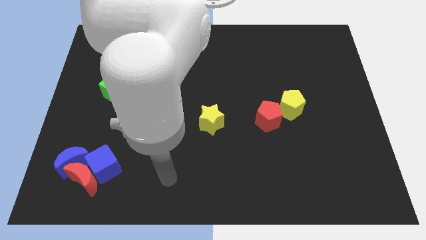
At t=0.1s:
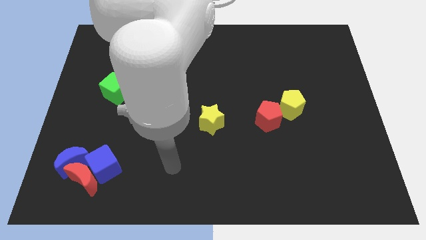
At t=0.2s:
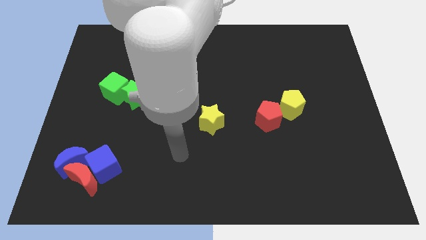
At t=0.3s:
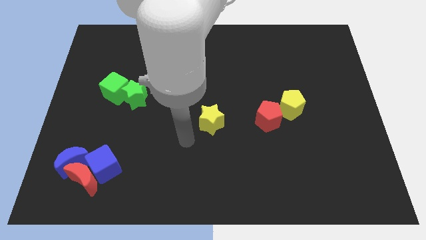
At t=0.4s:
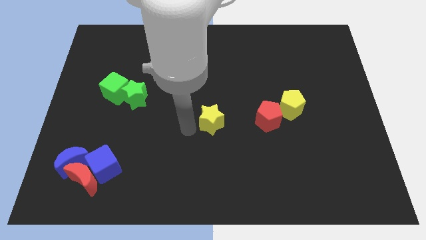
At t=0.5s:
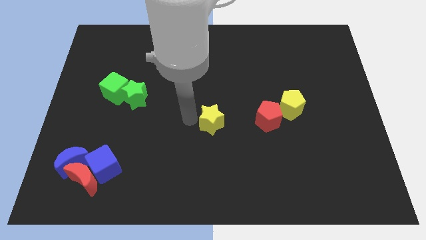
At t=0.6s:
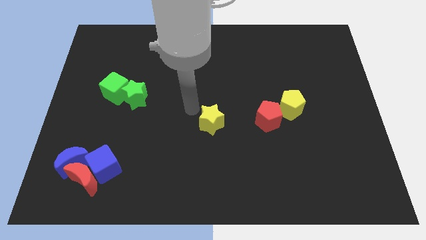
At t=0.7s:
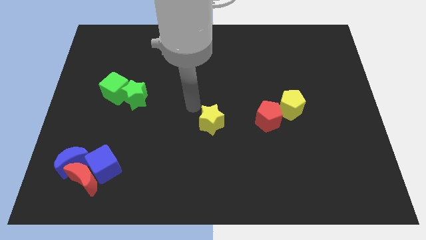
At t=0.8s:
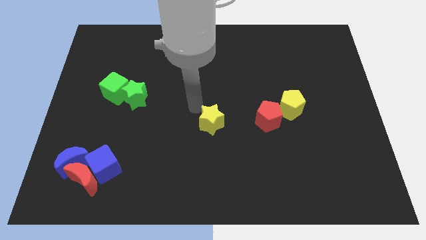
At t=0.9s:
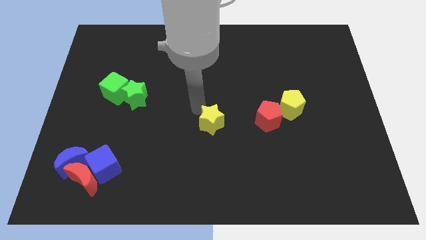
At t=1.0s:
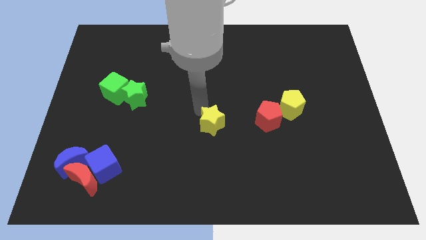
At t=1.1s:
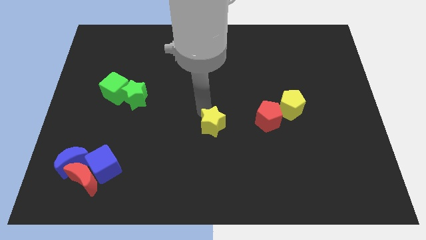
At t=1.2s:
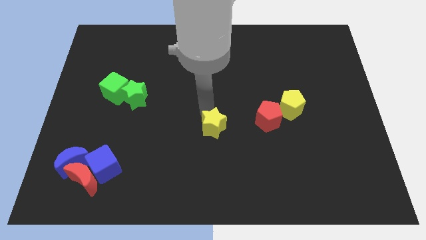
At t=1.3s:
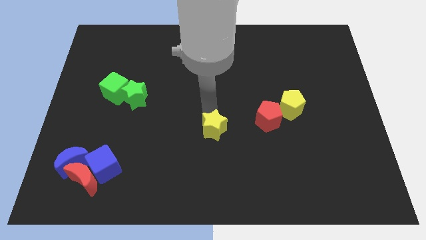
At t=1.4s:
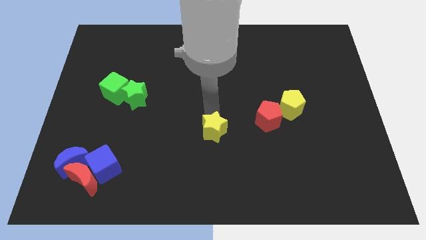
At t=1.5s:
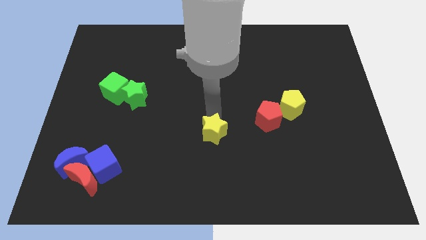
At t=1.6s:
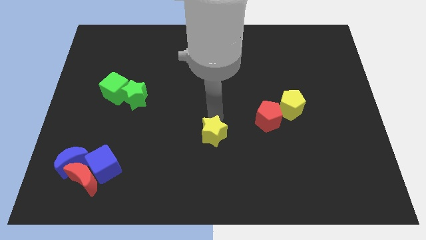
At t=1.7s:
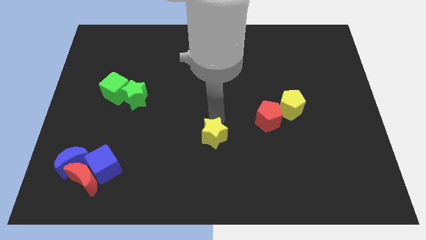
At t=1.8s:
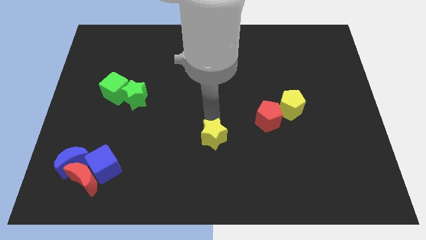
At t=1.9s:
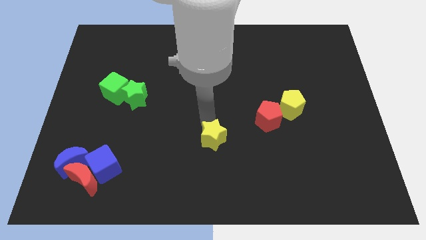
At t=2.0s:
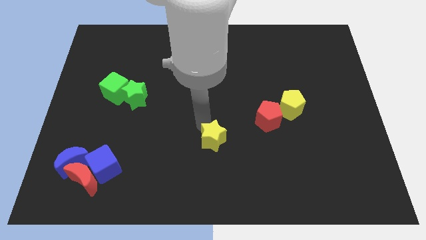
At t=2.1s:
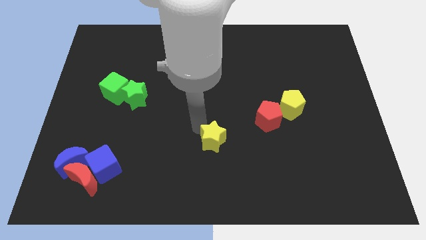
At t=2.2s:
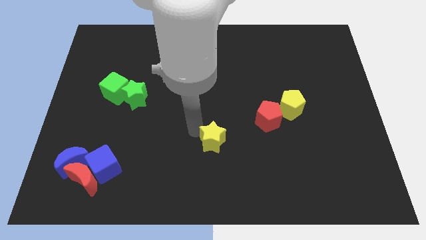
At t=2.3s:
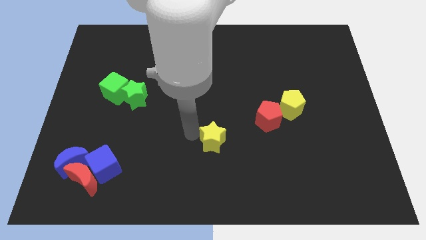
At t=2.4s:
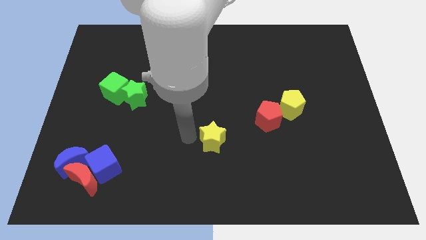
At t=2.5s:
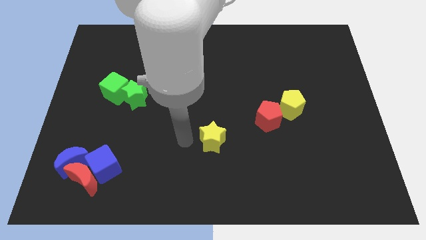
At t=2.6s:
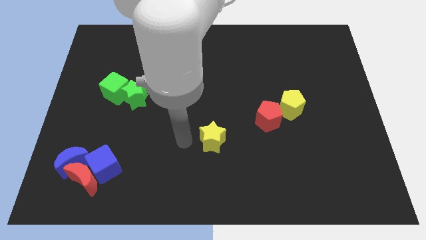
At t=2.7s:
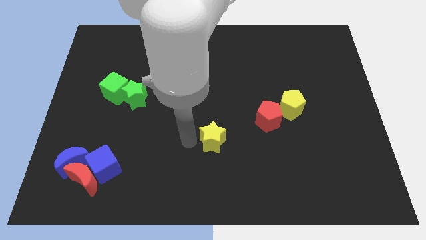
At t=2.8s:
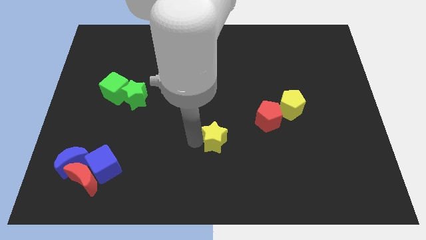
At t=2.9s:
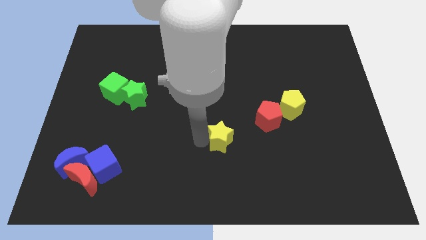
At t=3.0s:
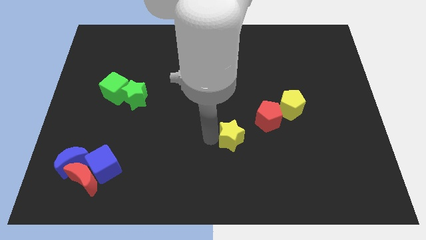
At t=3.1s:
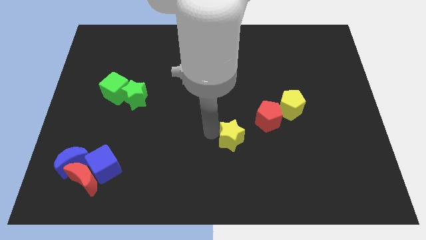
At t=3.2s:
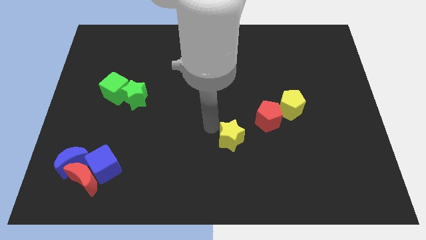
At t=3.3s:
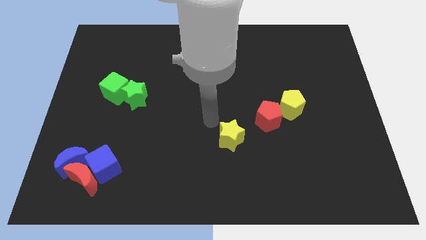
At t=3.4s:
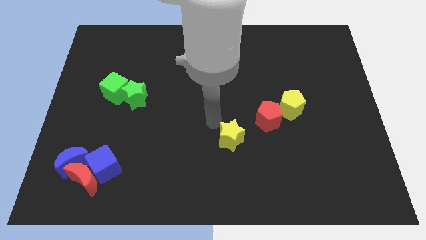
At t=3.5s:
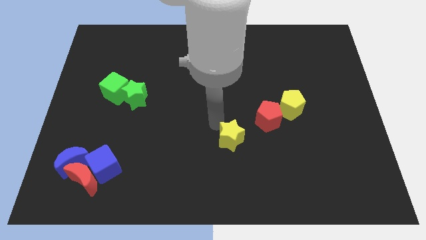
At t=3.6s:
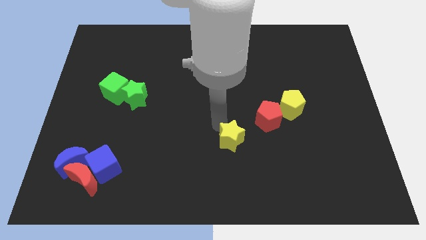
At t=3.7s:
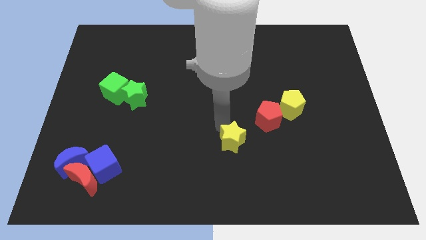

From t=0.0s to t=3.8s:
push the yellow star a bit down and to the right

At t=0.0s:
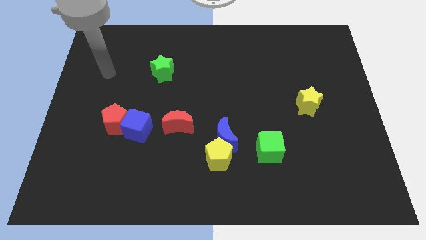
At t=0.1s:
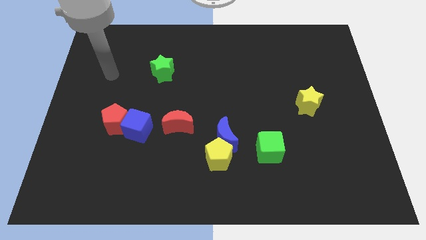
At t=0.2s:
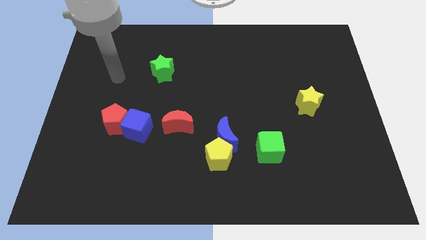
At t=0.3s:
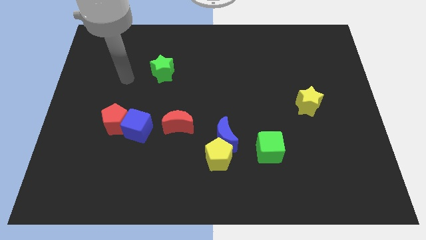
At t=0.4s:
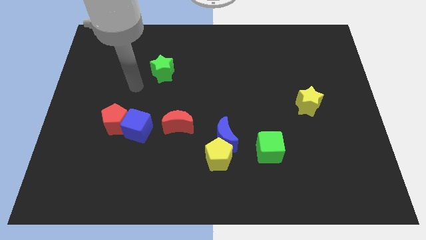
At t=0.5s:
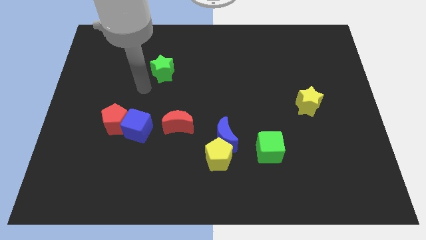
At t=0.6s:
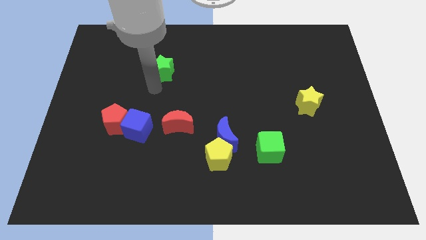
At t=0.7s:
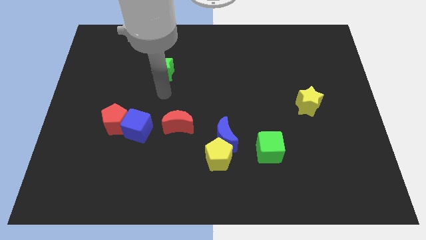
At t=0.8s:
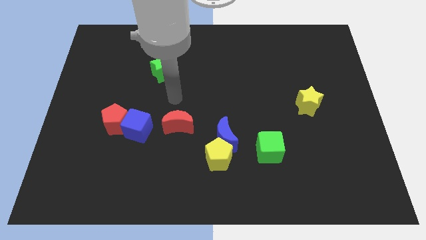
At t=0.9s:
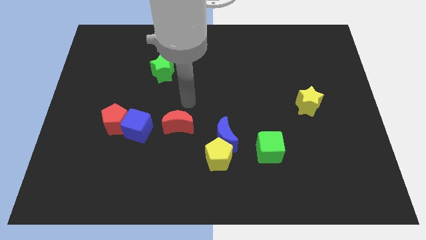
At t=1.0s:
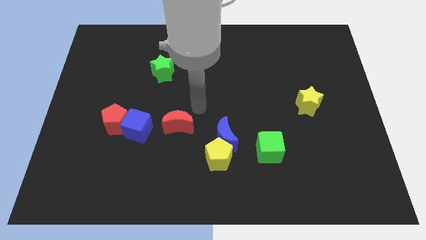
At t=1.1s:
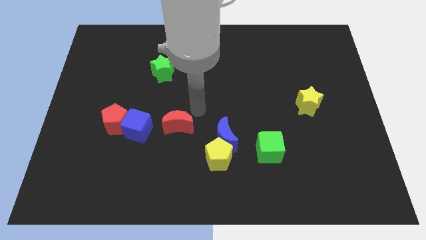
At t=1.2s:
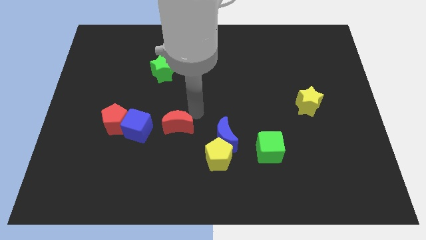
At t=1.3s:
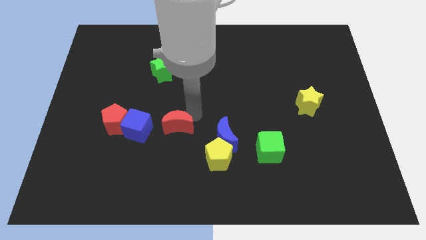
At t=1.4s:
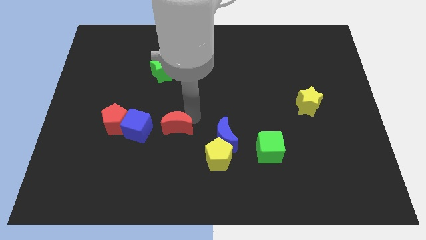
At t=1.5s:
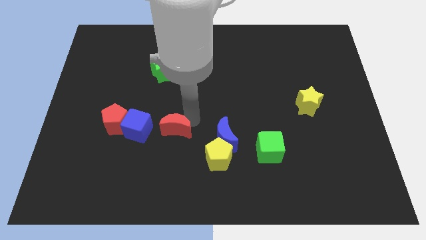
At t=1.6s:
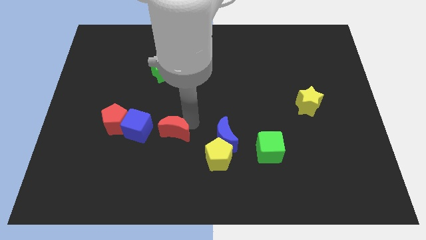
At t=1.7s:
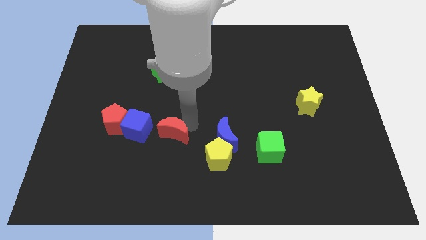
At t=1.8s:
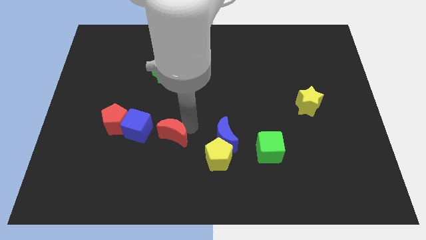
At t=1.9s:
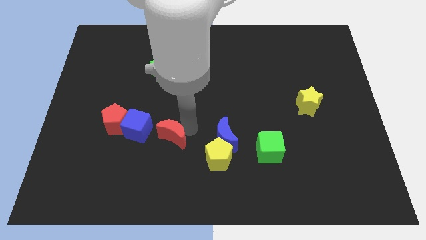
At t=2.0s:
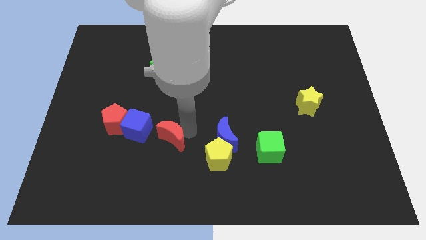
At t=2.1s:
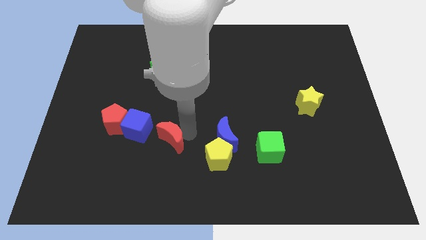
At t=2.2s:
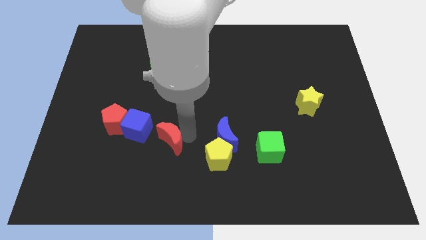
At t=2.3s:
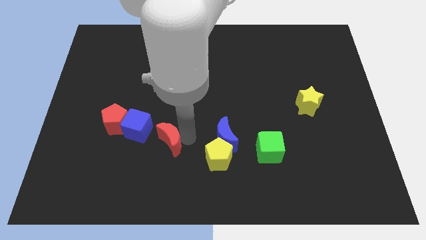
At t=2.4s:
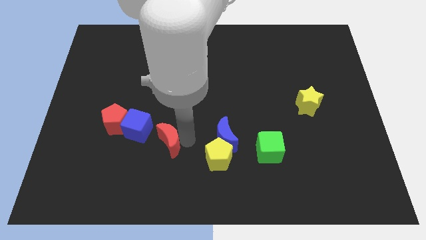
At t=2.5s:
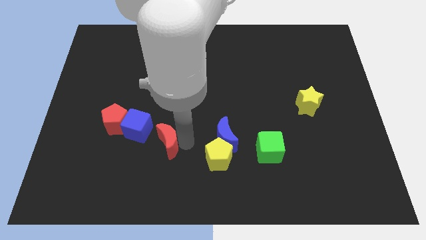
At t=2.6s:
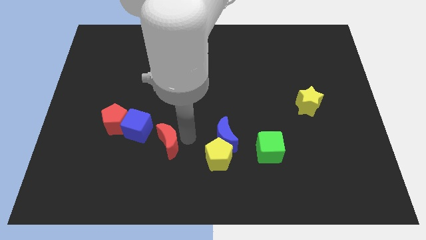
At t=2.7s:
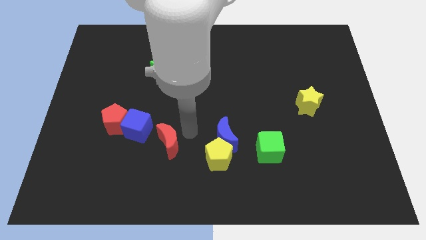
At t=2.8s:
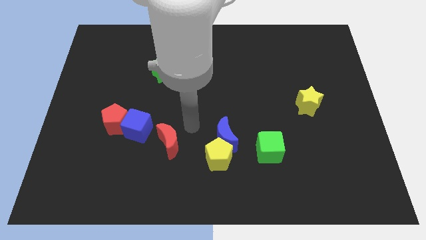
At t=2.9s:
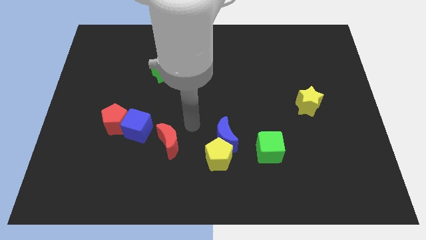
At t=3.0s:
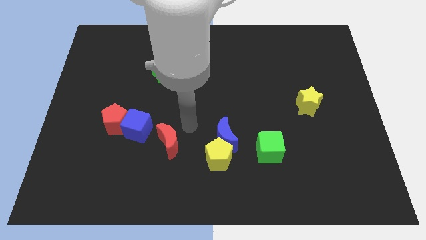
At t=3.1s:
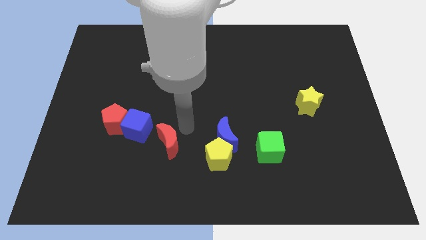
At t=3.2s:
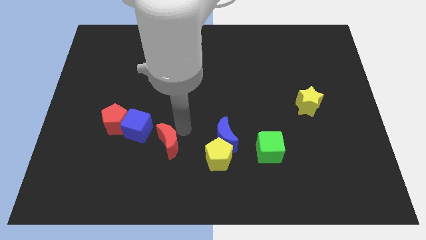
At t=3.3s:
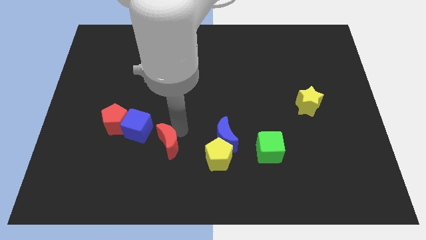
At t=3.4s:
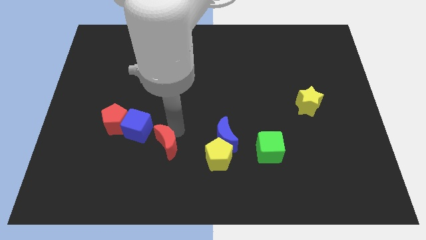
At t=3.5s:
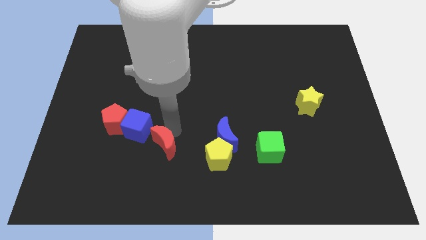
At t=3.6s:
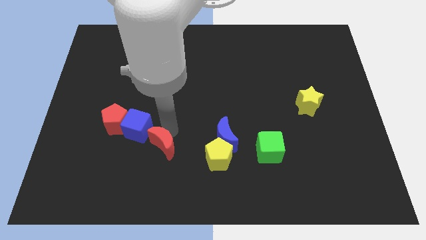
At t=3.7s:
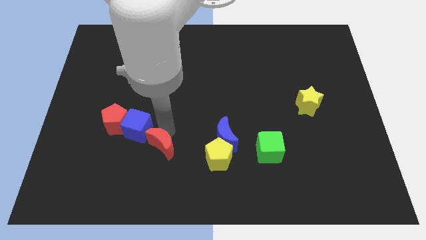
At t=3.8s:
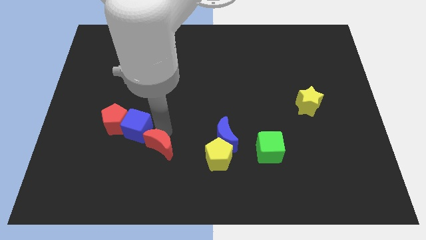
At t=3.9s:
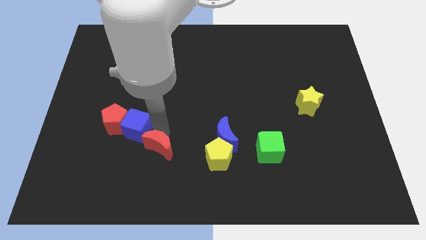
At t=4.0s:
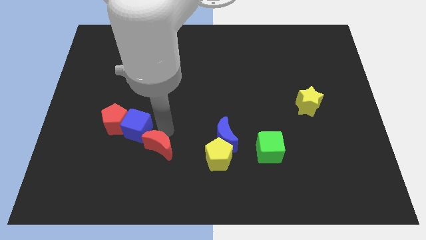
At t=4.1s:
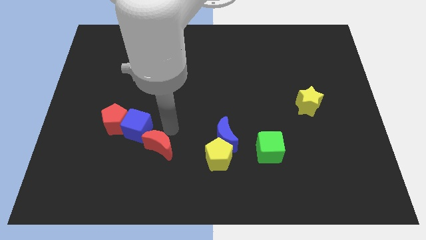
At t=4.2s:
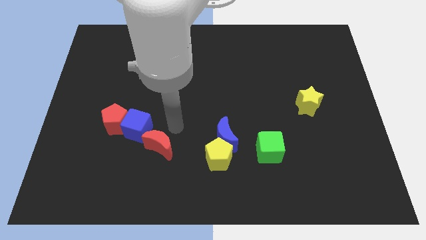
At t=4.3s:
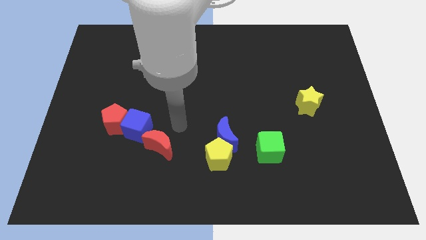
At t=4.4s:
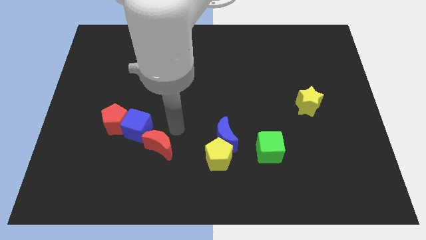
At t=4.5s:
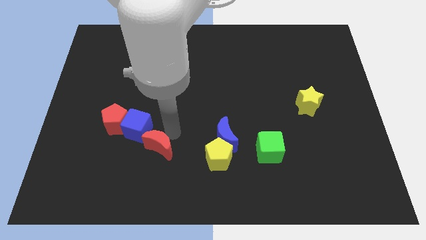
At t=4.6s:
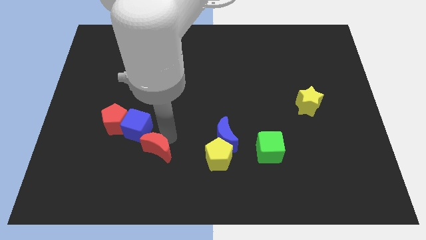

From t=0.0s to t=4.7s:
push the red moon a little bit down and left
